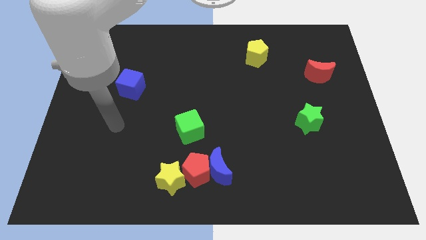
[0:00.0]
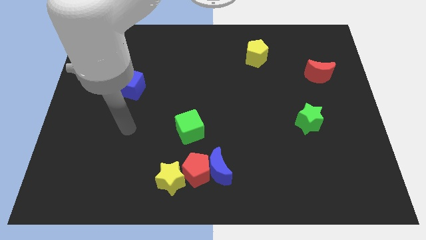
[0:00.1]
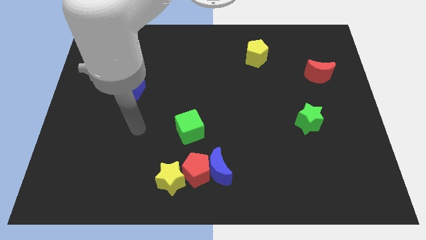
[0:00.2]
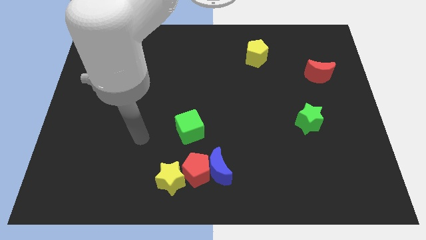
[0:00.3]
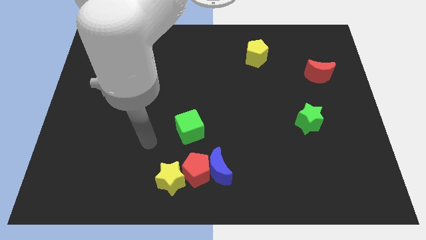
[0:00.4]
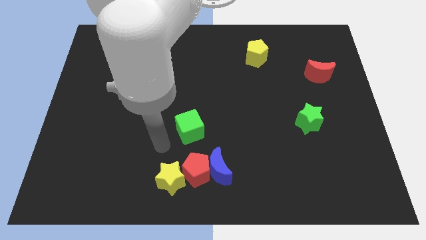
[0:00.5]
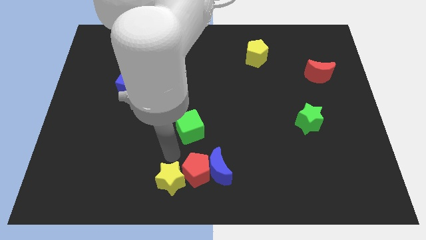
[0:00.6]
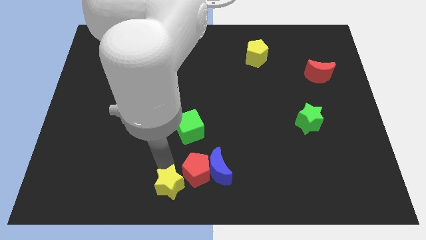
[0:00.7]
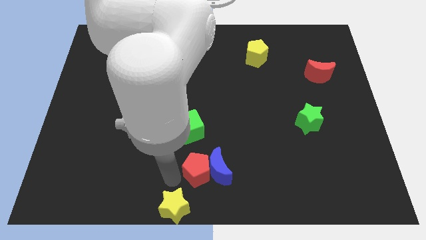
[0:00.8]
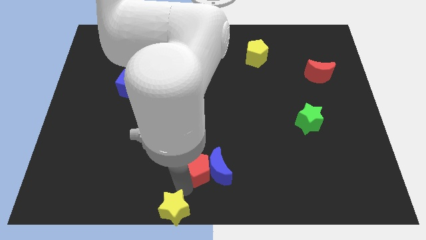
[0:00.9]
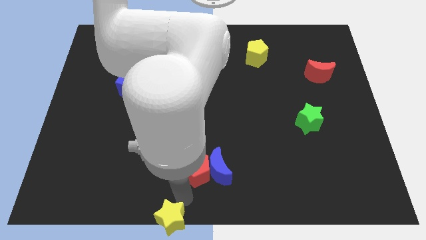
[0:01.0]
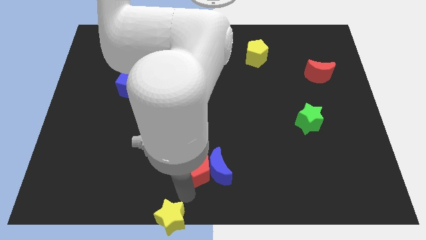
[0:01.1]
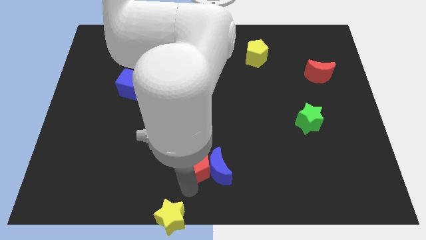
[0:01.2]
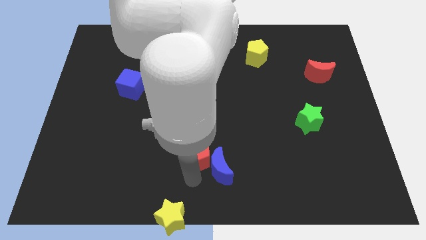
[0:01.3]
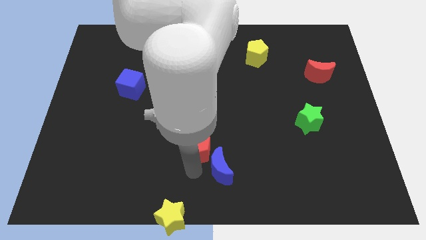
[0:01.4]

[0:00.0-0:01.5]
pull the red pentagon apart from the blue moon and yellow star

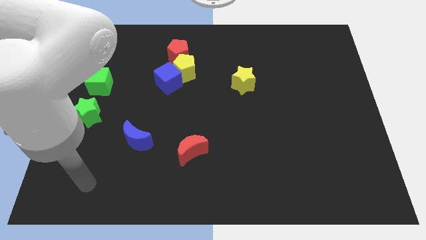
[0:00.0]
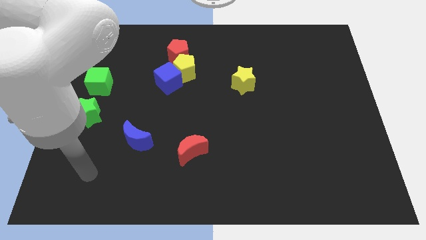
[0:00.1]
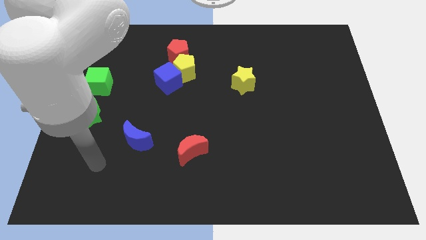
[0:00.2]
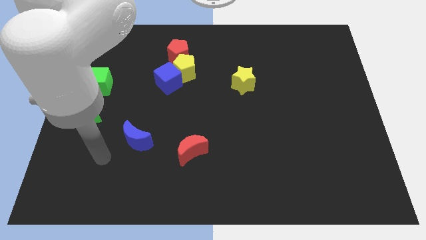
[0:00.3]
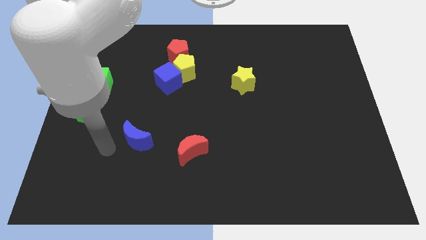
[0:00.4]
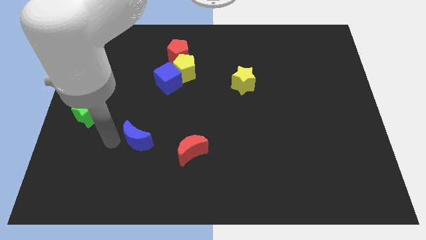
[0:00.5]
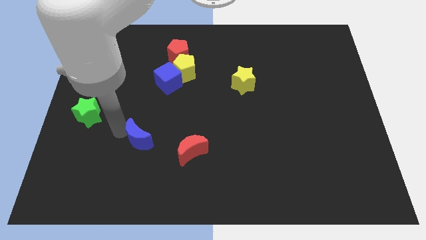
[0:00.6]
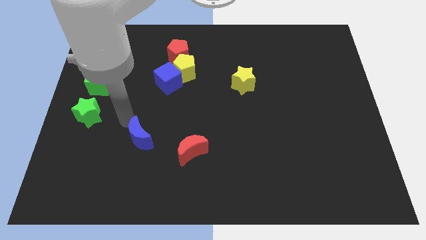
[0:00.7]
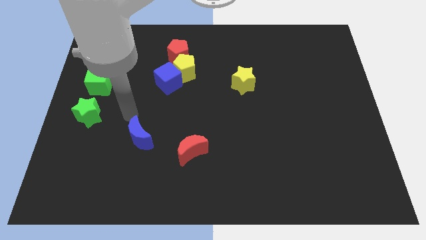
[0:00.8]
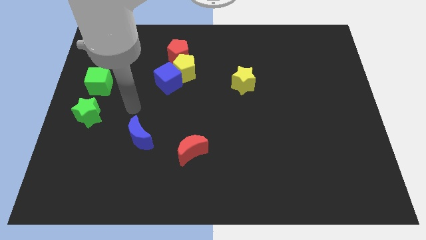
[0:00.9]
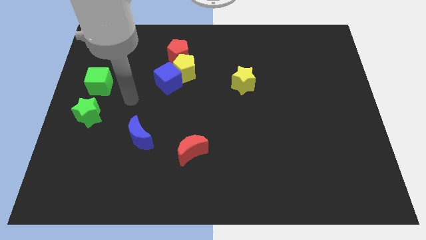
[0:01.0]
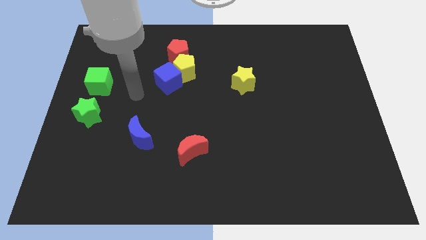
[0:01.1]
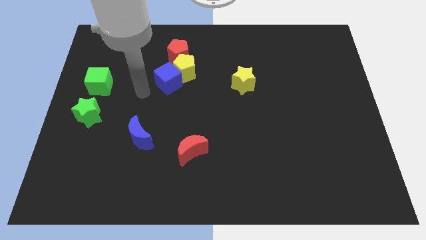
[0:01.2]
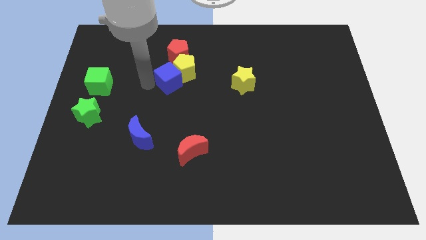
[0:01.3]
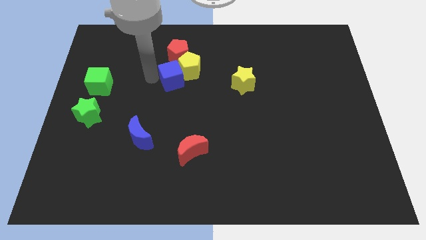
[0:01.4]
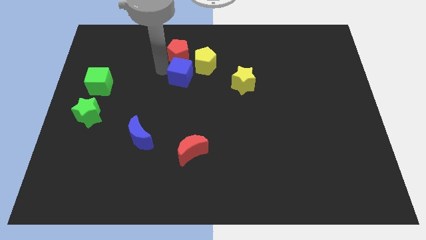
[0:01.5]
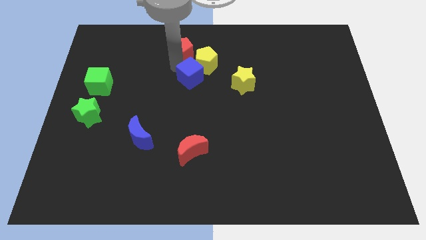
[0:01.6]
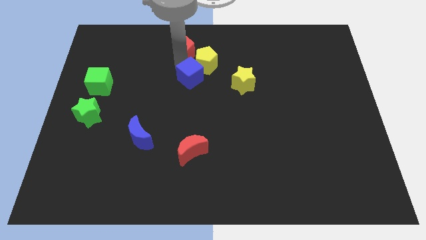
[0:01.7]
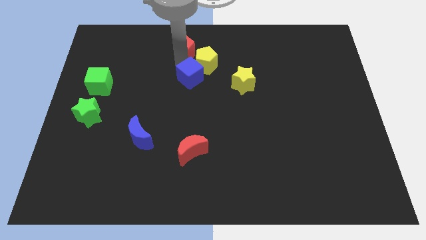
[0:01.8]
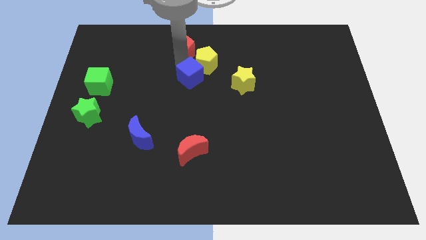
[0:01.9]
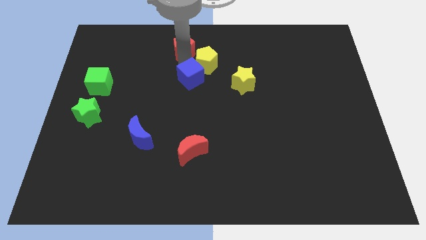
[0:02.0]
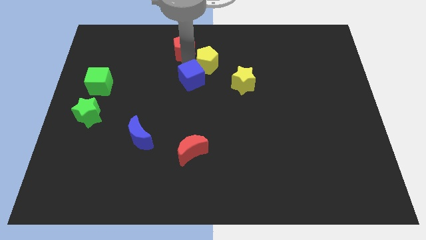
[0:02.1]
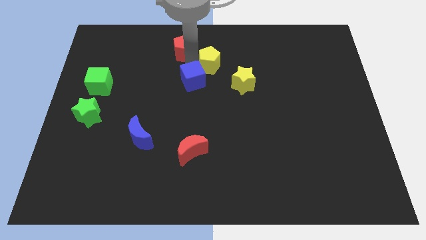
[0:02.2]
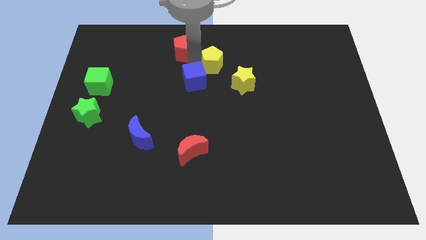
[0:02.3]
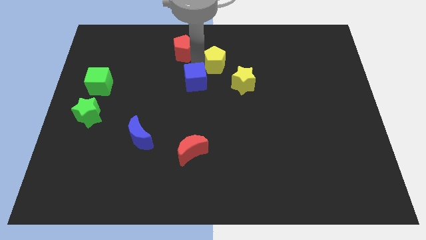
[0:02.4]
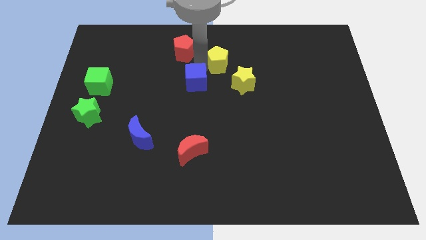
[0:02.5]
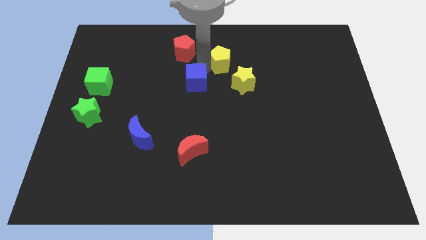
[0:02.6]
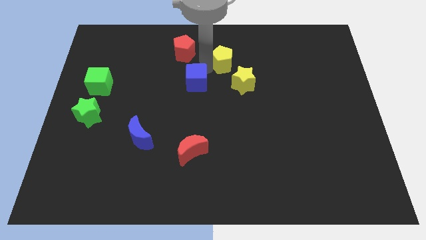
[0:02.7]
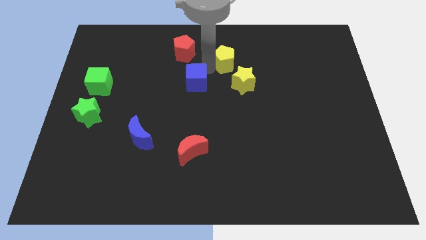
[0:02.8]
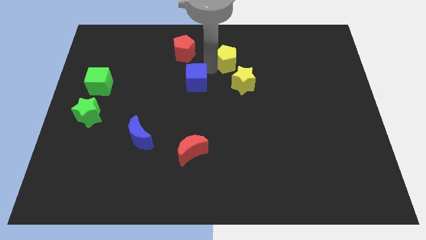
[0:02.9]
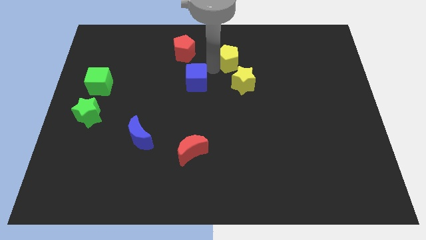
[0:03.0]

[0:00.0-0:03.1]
separate the yellow pentagon from the blue cube and red pentagon

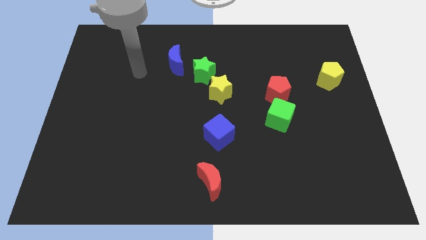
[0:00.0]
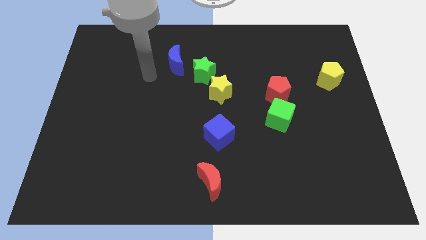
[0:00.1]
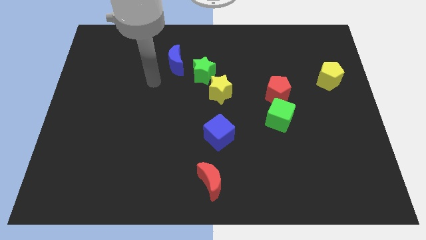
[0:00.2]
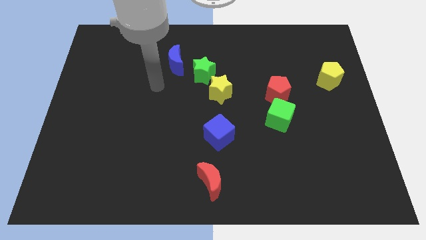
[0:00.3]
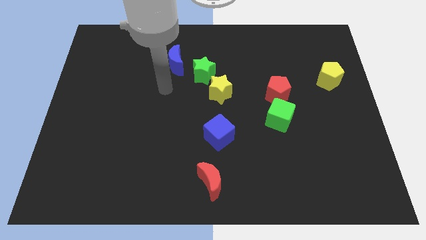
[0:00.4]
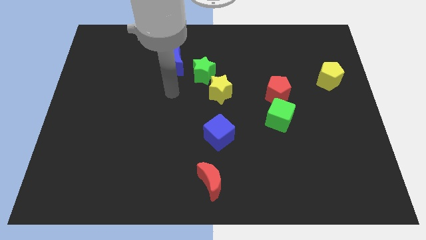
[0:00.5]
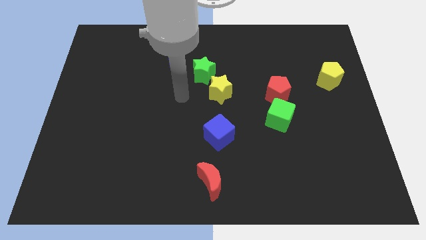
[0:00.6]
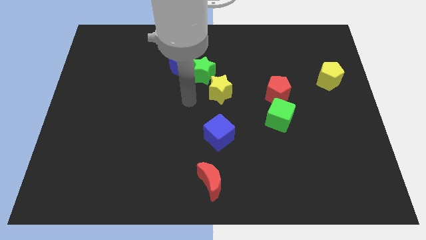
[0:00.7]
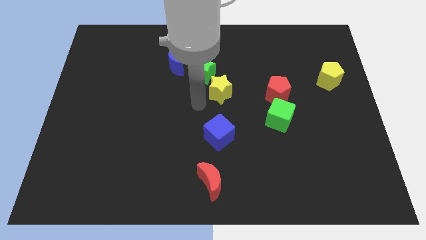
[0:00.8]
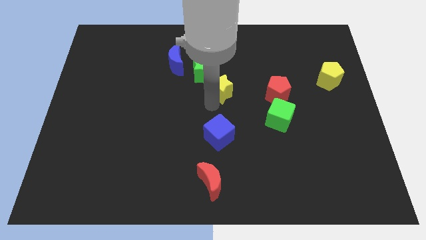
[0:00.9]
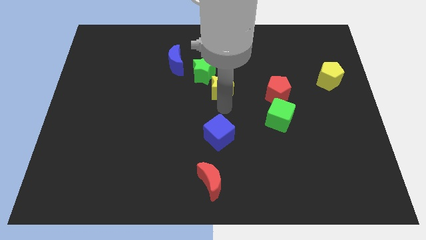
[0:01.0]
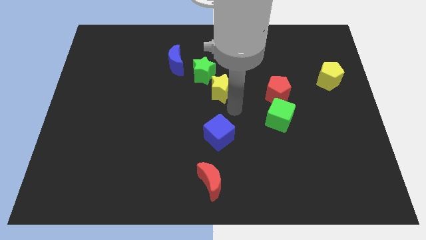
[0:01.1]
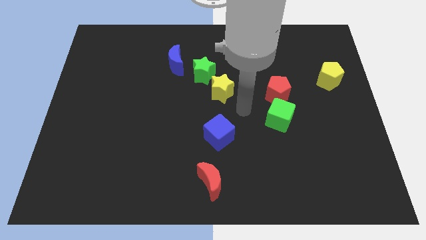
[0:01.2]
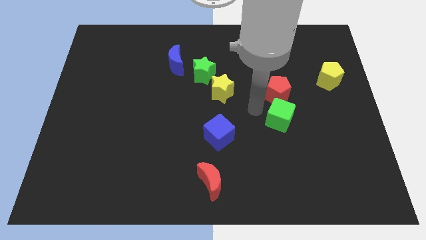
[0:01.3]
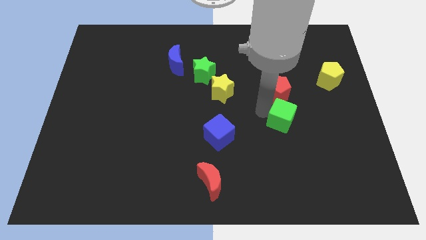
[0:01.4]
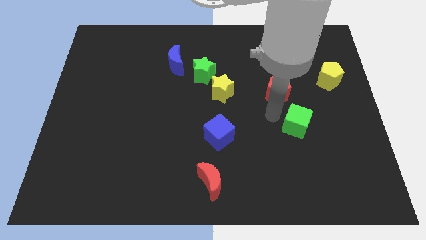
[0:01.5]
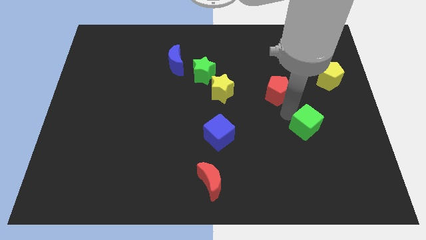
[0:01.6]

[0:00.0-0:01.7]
separate the red pentagon from the green cube

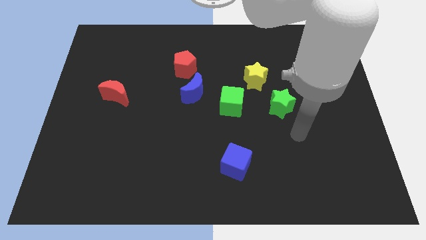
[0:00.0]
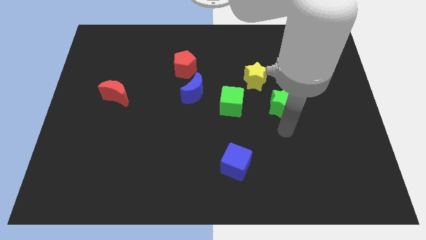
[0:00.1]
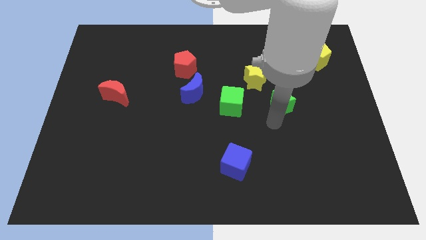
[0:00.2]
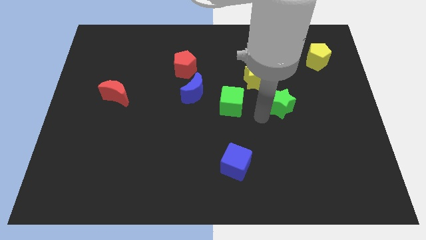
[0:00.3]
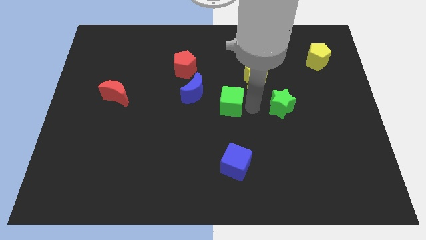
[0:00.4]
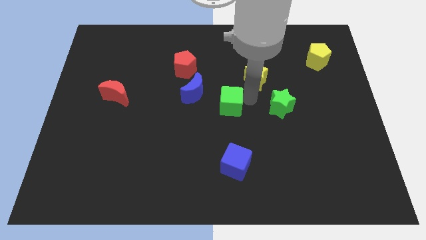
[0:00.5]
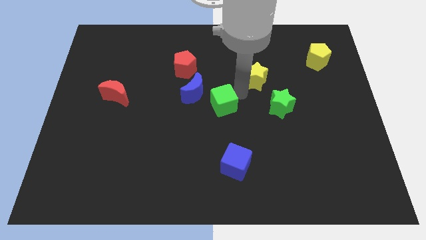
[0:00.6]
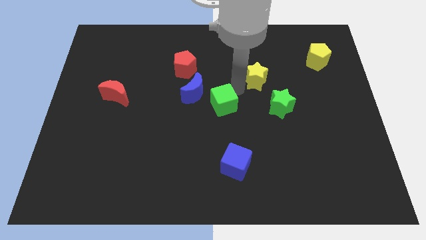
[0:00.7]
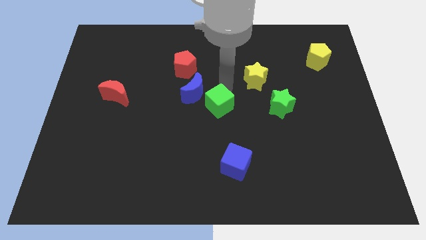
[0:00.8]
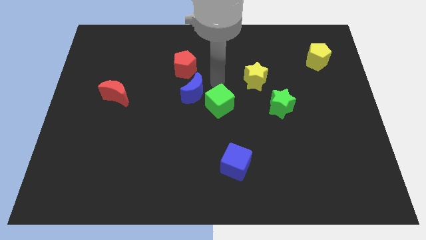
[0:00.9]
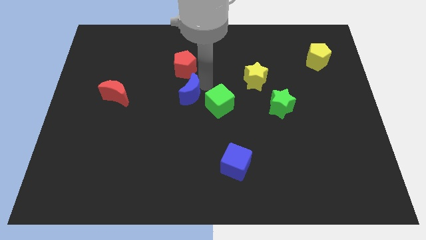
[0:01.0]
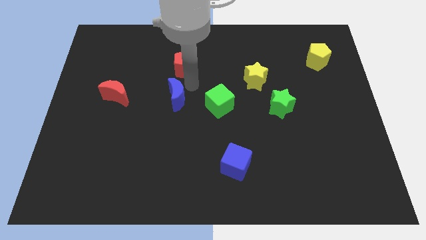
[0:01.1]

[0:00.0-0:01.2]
pull the red pentagon apart from the blue moon

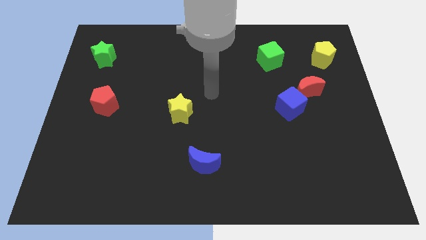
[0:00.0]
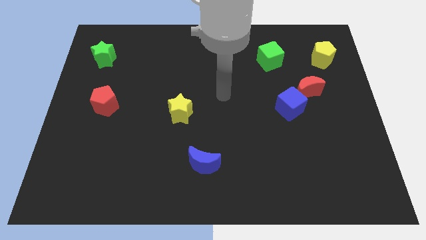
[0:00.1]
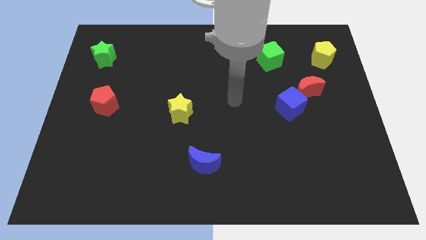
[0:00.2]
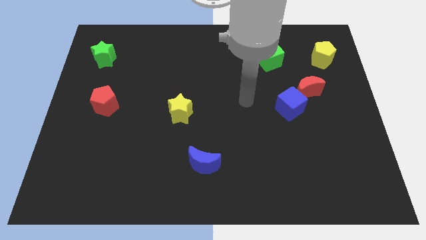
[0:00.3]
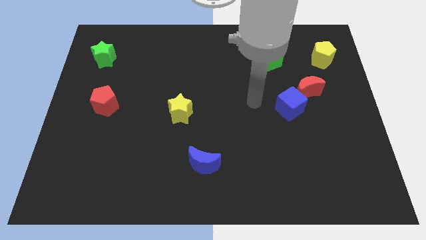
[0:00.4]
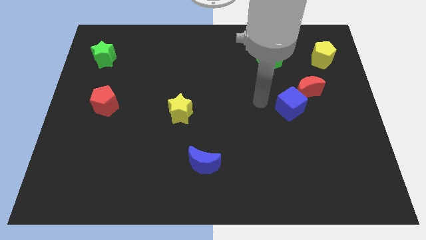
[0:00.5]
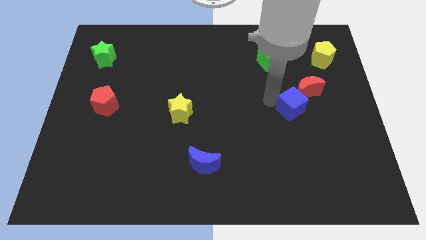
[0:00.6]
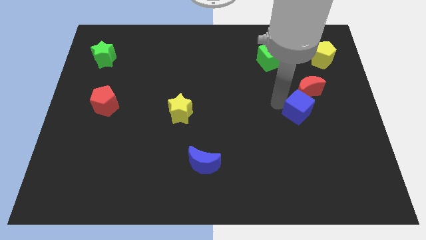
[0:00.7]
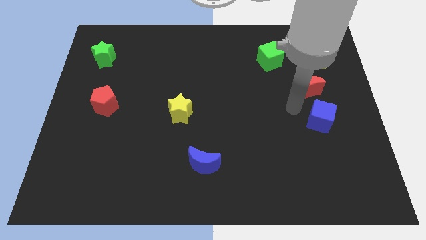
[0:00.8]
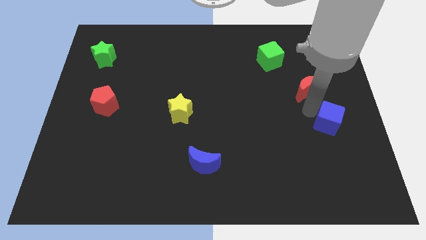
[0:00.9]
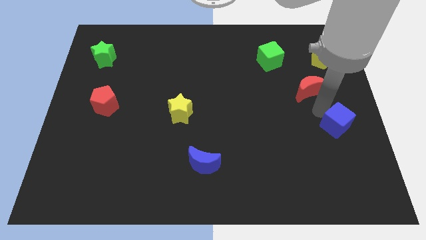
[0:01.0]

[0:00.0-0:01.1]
pull the red moon apart from the blue cube

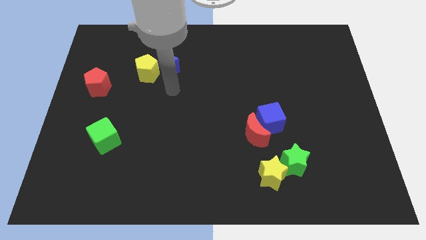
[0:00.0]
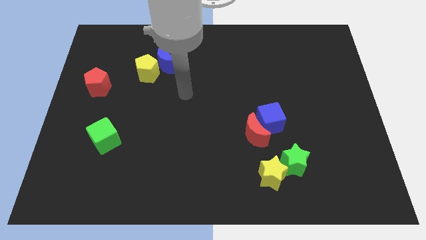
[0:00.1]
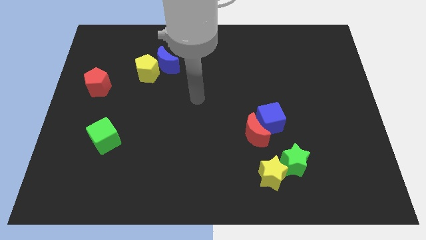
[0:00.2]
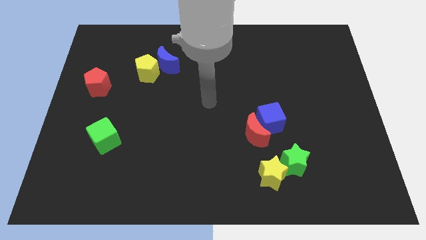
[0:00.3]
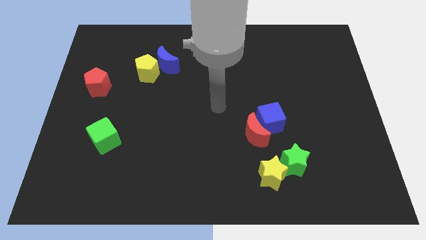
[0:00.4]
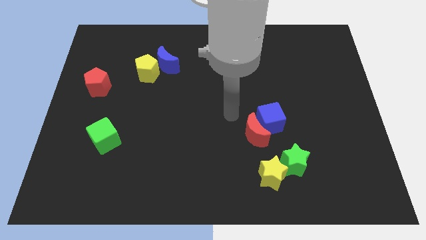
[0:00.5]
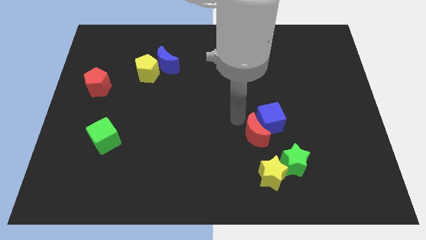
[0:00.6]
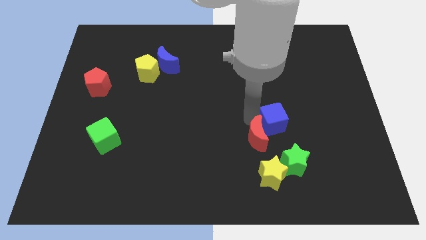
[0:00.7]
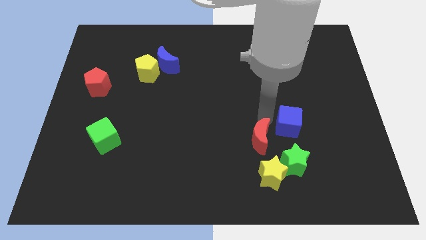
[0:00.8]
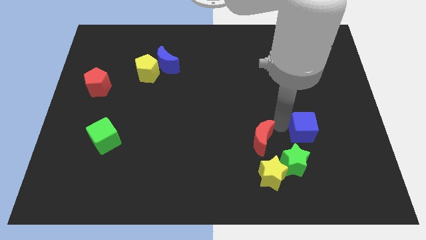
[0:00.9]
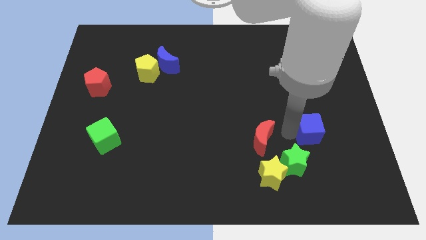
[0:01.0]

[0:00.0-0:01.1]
move the red moon away from the blue cube
